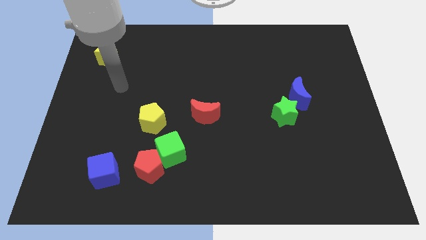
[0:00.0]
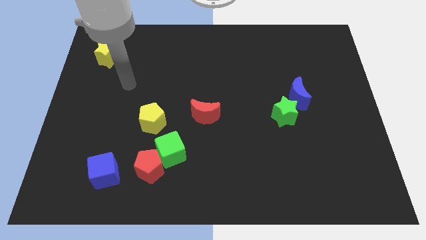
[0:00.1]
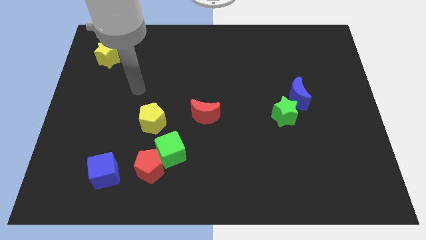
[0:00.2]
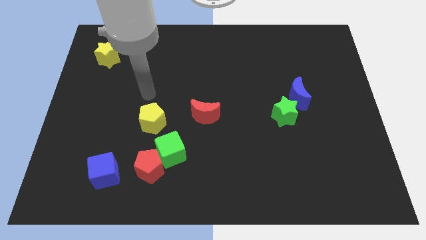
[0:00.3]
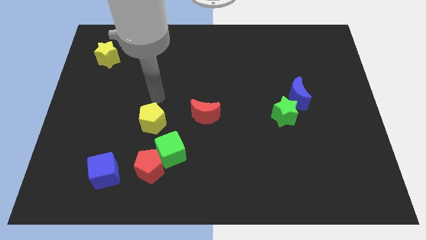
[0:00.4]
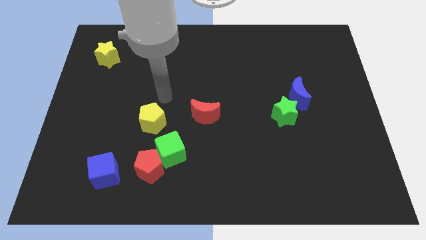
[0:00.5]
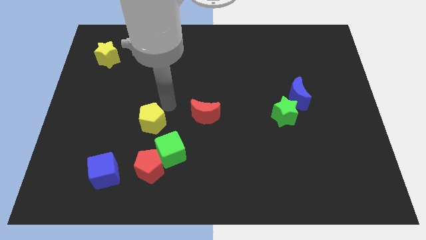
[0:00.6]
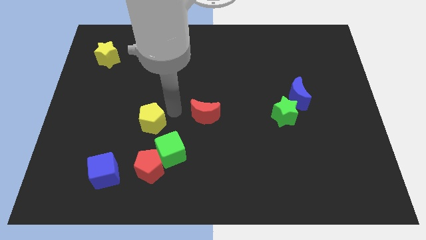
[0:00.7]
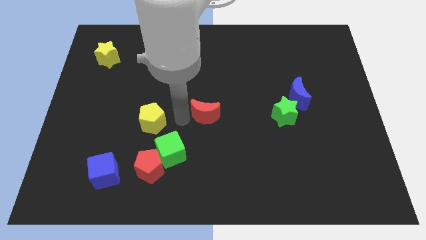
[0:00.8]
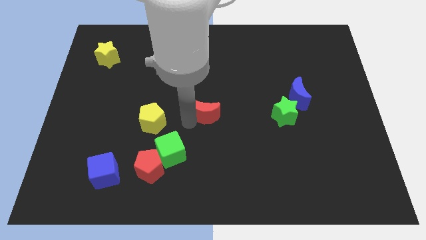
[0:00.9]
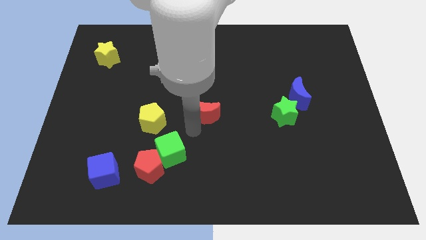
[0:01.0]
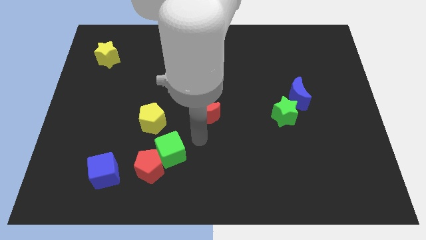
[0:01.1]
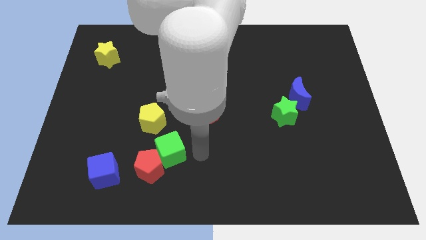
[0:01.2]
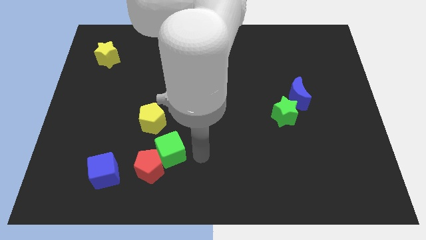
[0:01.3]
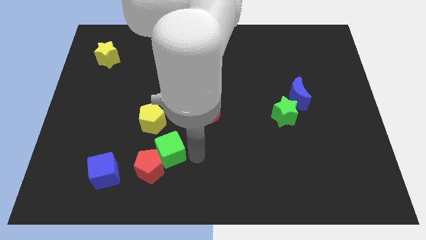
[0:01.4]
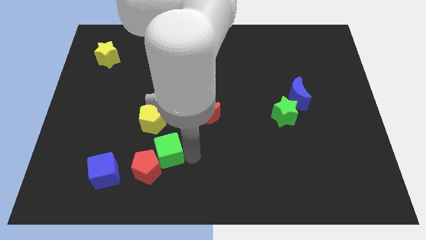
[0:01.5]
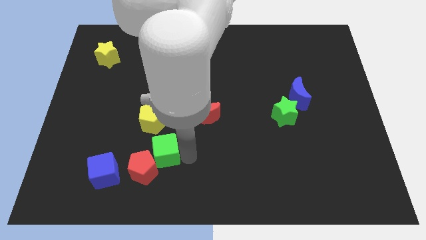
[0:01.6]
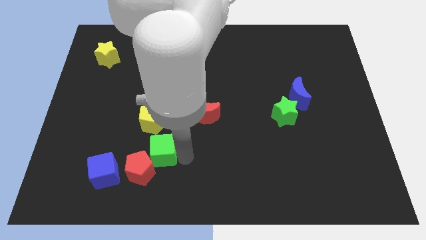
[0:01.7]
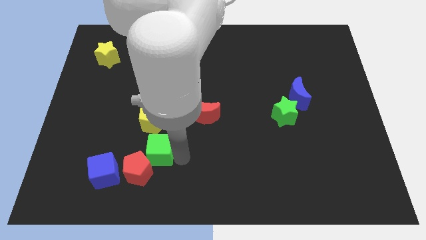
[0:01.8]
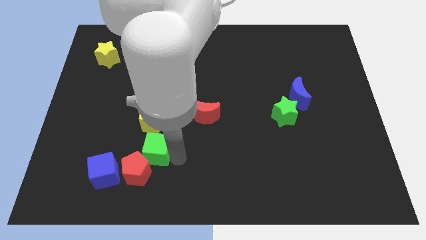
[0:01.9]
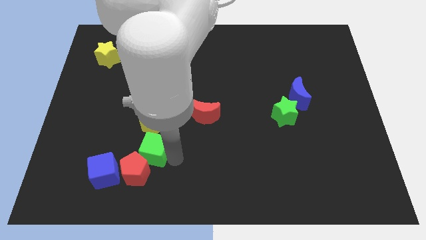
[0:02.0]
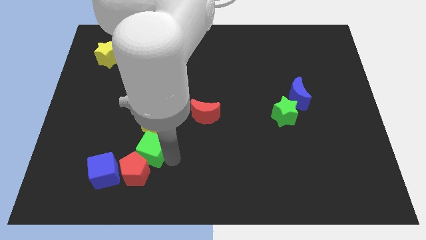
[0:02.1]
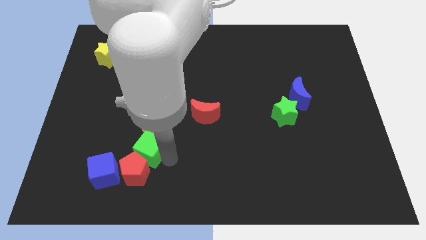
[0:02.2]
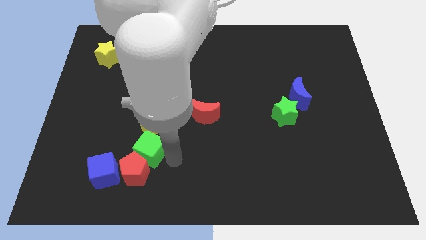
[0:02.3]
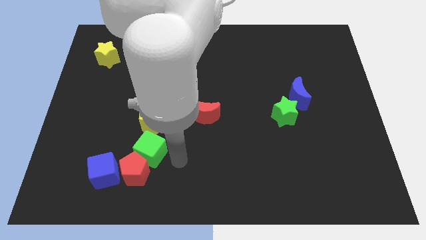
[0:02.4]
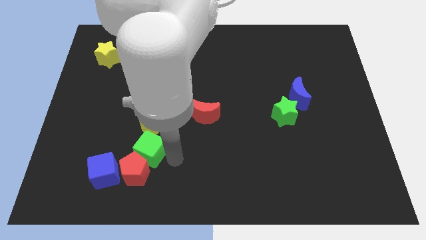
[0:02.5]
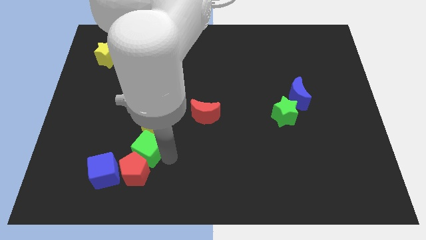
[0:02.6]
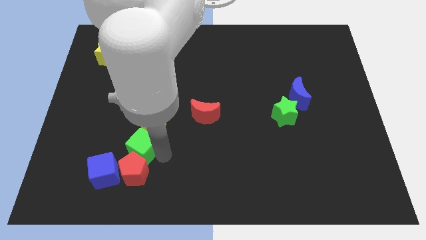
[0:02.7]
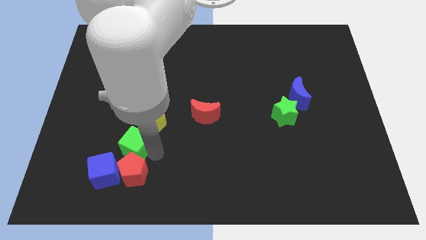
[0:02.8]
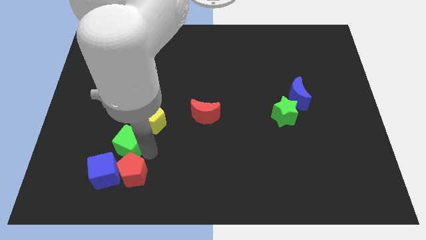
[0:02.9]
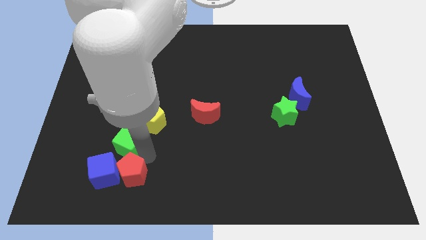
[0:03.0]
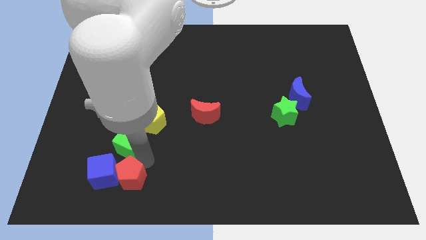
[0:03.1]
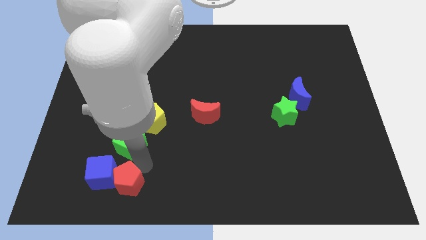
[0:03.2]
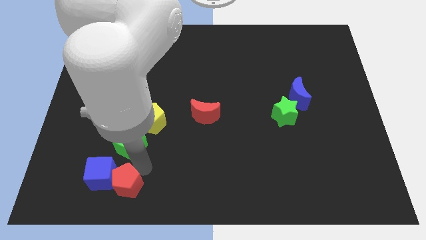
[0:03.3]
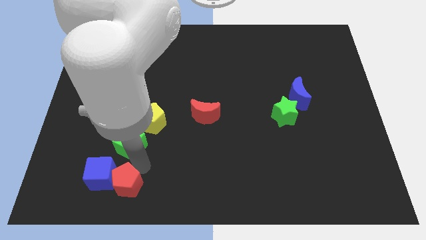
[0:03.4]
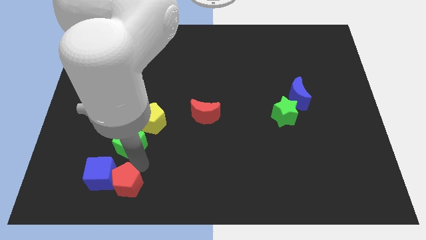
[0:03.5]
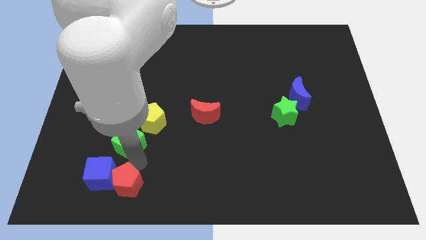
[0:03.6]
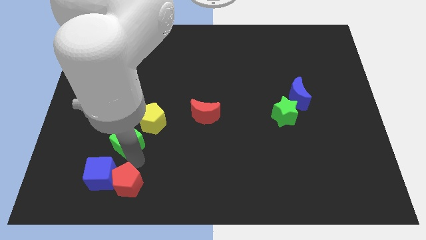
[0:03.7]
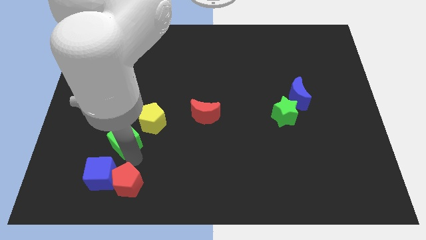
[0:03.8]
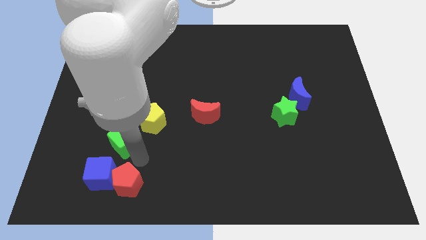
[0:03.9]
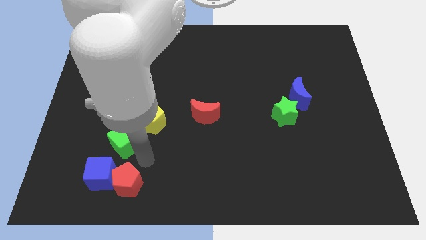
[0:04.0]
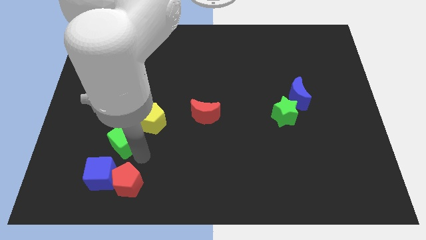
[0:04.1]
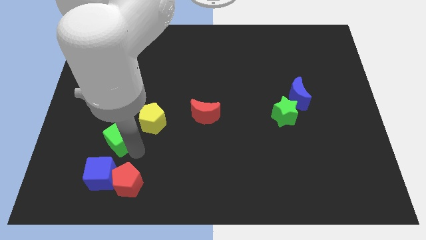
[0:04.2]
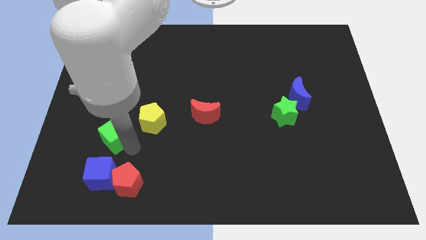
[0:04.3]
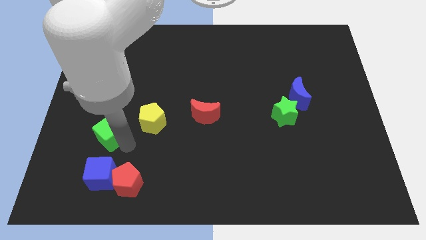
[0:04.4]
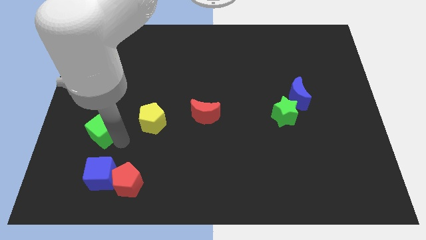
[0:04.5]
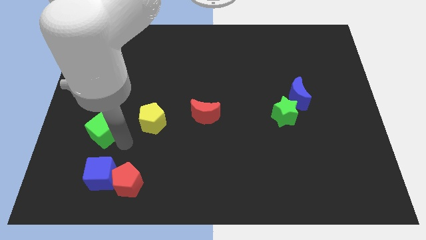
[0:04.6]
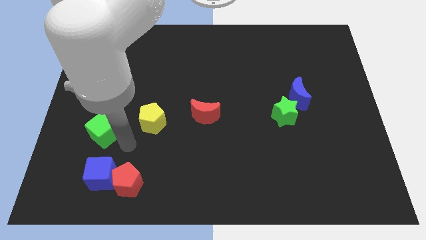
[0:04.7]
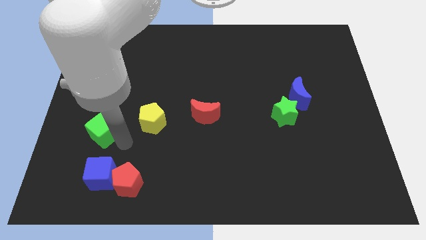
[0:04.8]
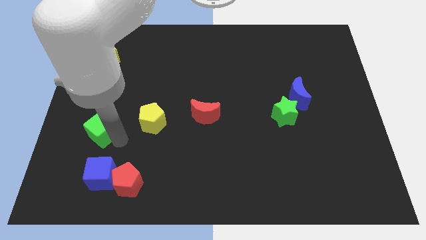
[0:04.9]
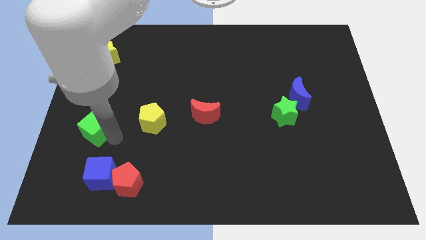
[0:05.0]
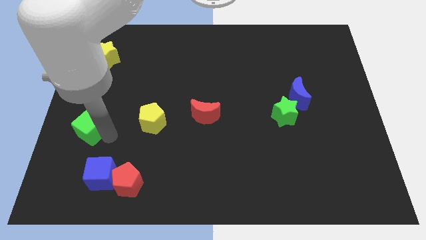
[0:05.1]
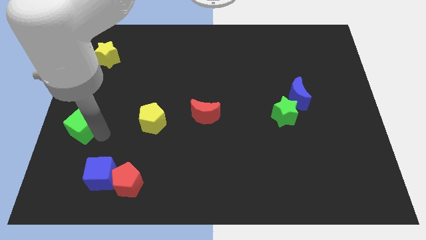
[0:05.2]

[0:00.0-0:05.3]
put the green cube to the center left

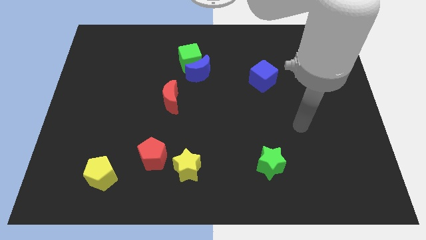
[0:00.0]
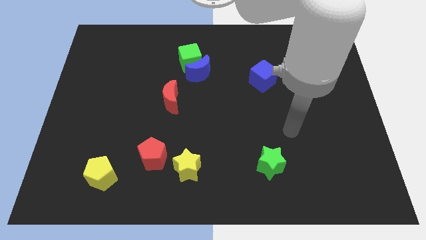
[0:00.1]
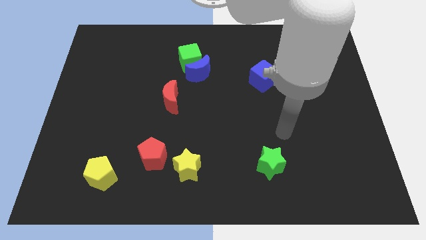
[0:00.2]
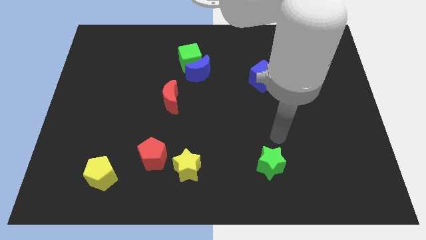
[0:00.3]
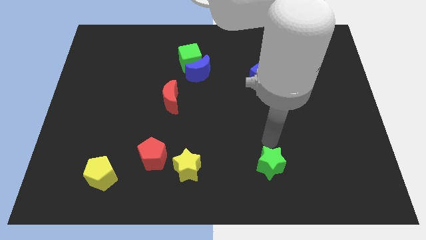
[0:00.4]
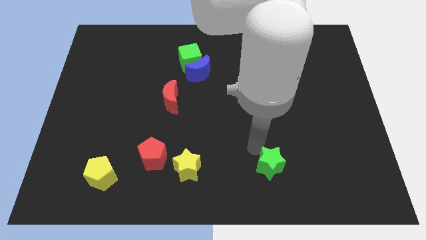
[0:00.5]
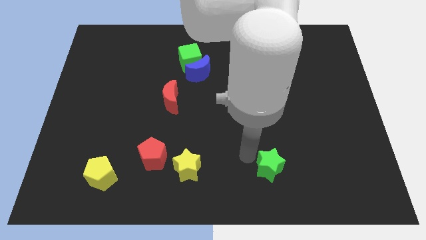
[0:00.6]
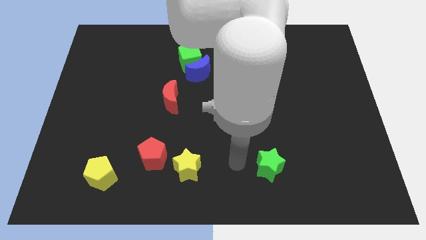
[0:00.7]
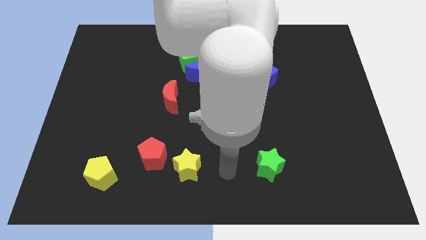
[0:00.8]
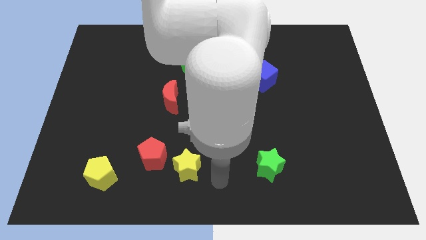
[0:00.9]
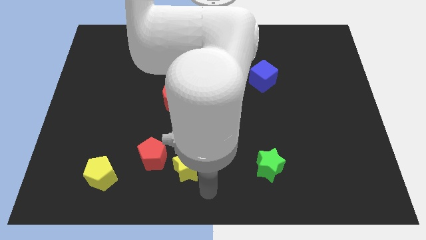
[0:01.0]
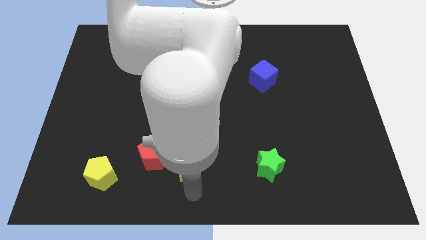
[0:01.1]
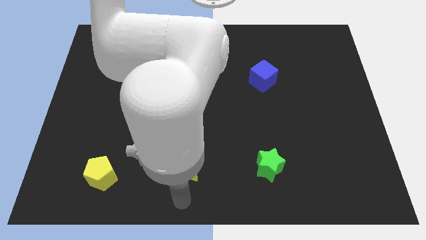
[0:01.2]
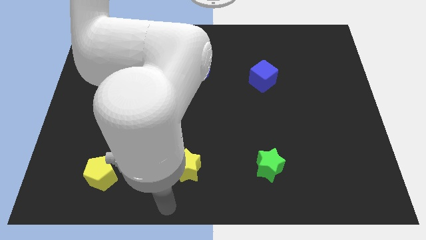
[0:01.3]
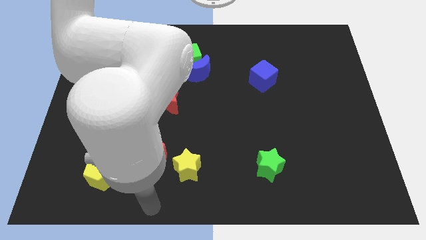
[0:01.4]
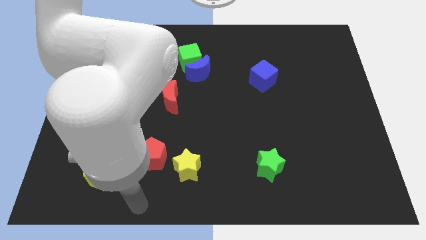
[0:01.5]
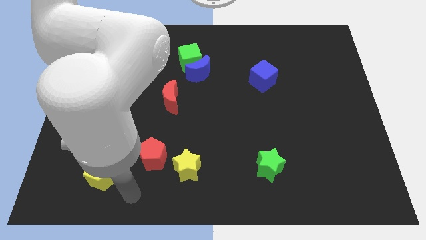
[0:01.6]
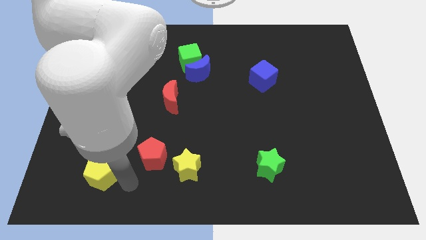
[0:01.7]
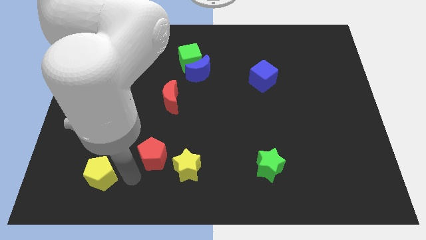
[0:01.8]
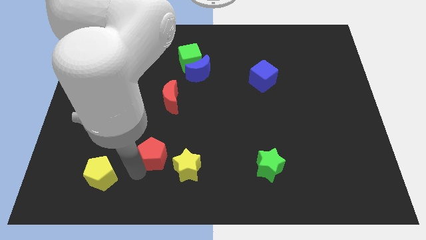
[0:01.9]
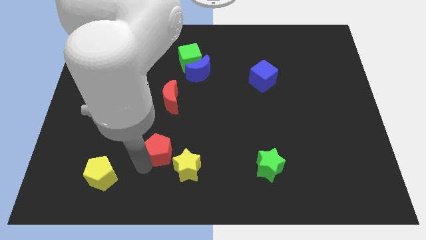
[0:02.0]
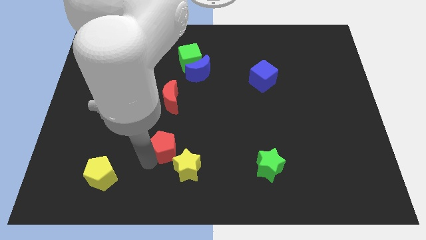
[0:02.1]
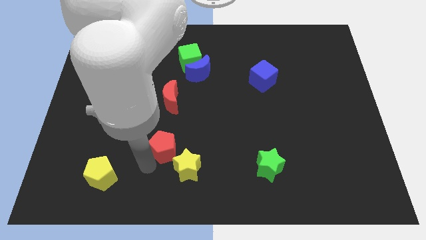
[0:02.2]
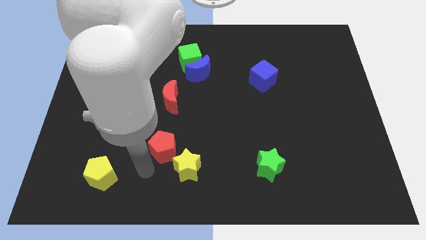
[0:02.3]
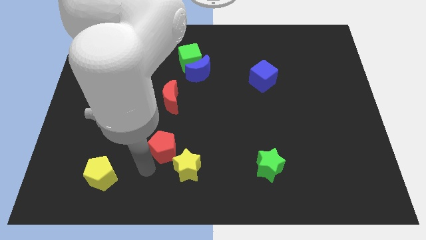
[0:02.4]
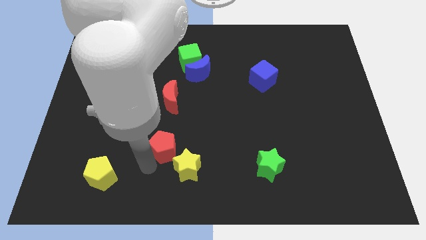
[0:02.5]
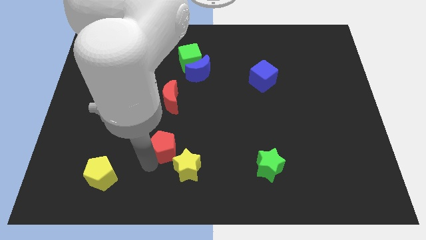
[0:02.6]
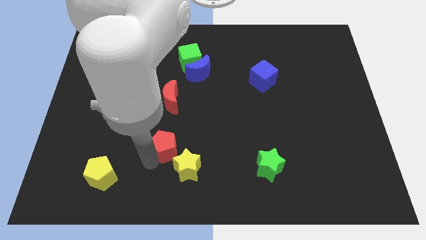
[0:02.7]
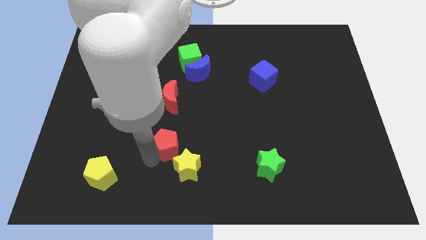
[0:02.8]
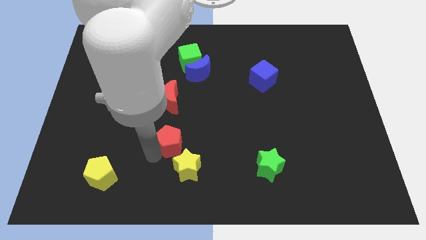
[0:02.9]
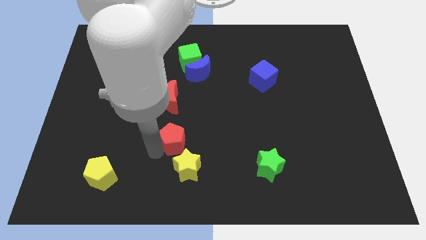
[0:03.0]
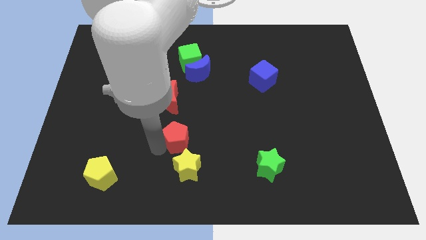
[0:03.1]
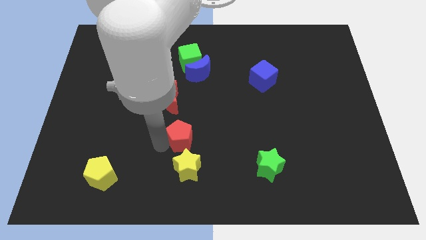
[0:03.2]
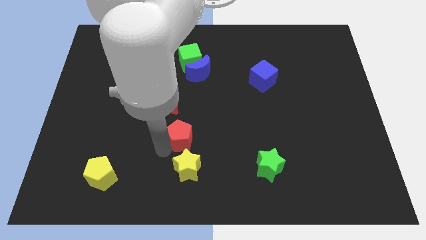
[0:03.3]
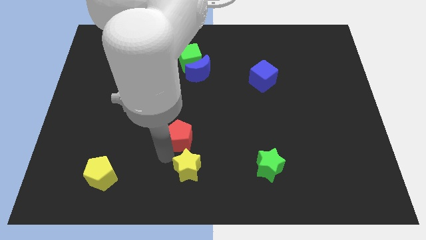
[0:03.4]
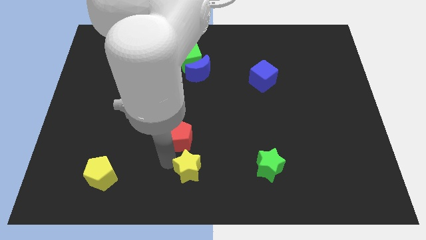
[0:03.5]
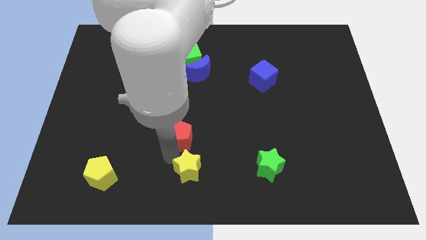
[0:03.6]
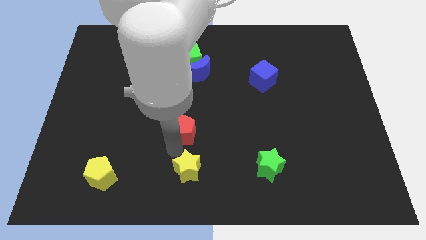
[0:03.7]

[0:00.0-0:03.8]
slide the red pentagon to the center of the board
